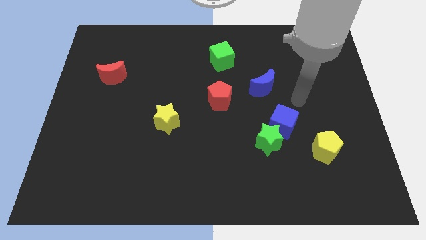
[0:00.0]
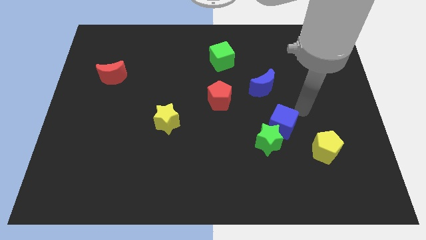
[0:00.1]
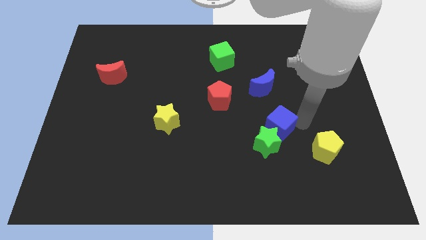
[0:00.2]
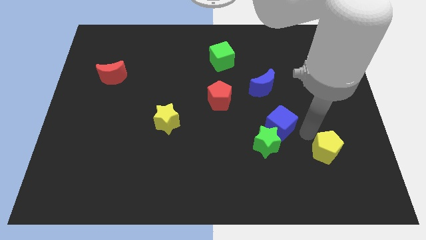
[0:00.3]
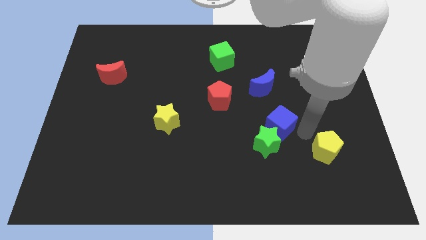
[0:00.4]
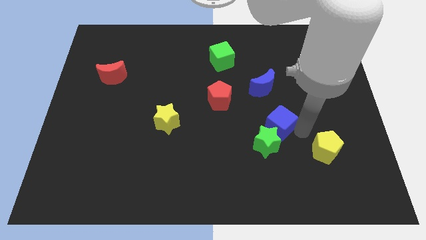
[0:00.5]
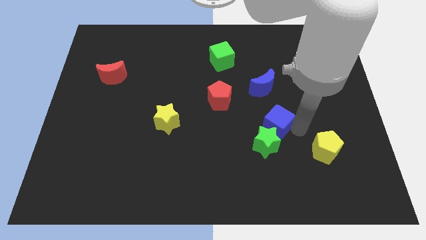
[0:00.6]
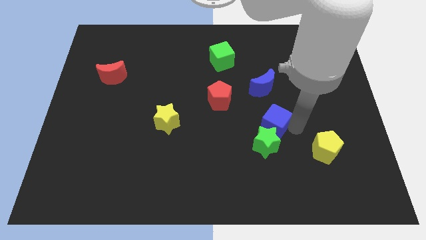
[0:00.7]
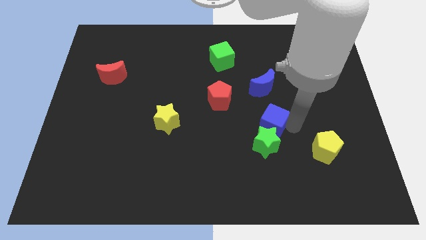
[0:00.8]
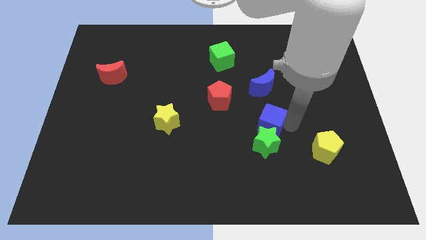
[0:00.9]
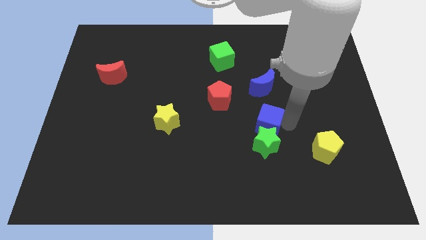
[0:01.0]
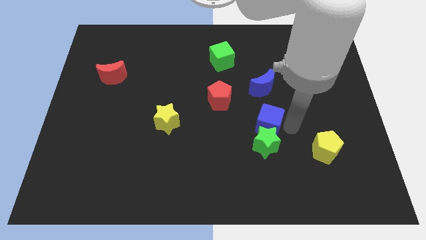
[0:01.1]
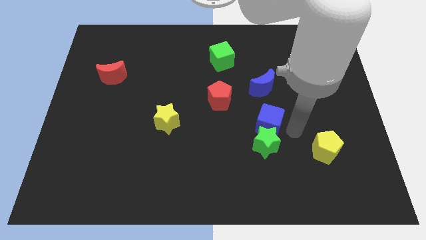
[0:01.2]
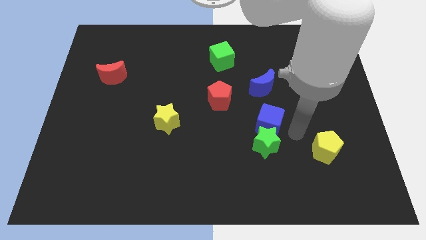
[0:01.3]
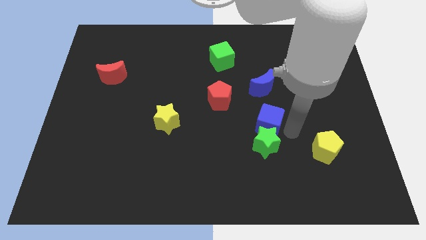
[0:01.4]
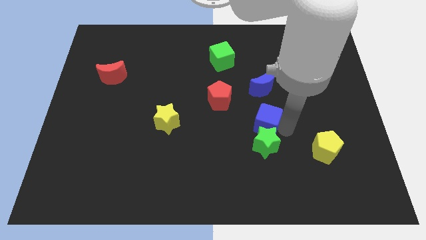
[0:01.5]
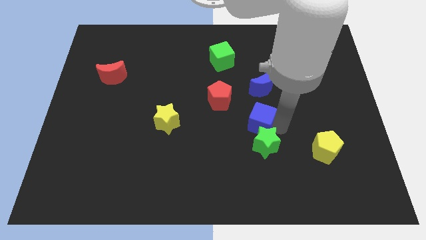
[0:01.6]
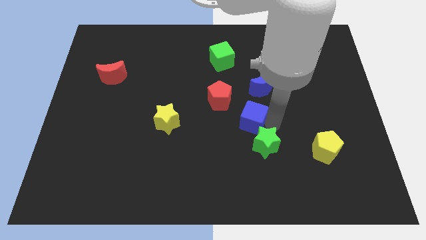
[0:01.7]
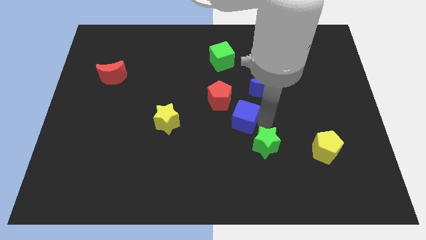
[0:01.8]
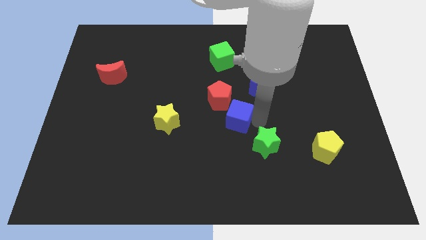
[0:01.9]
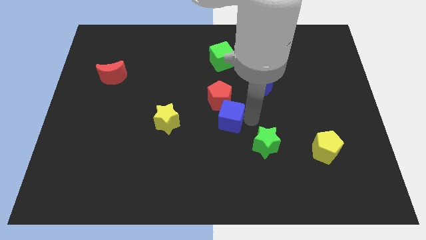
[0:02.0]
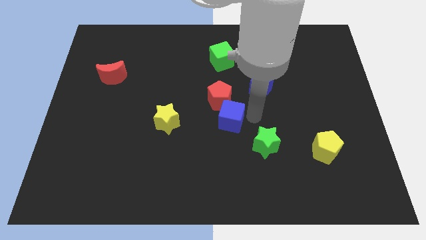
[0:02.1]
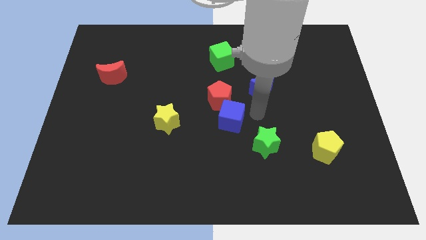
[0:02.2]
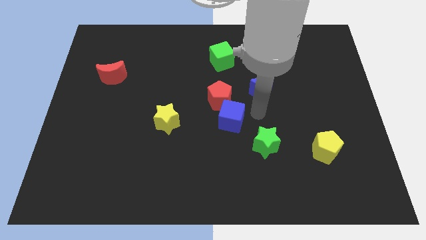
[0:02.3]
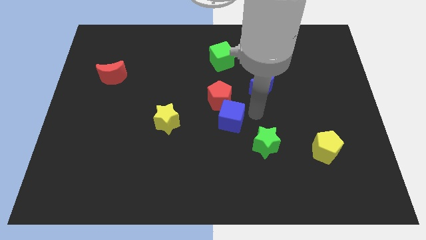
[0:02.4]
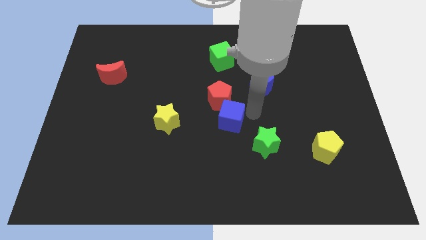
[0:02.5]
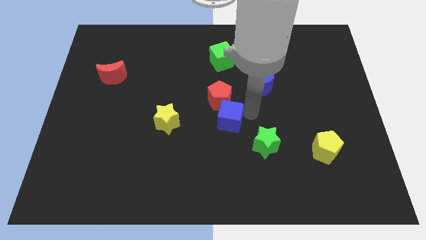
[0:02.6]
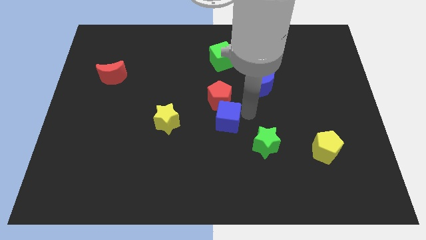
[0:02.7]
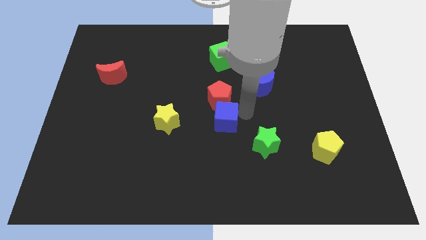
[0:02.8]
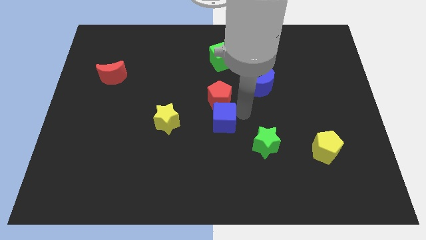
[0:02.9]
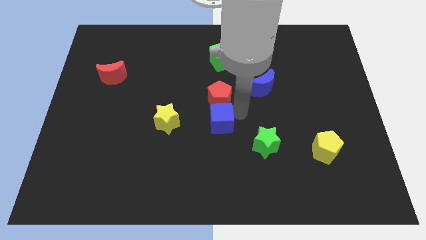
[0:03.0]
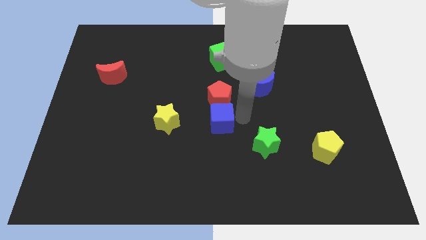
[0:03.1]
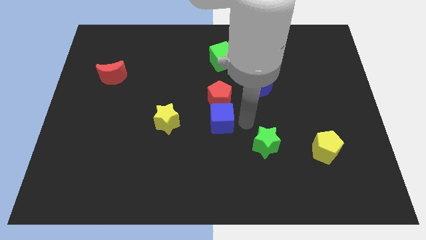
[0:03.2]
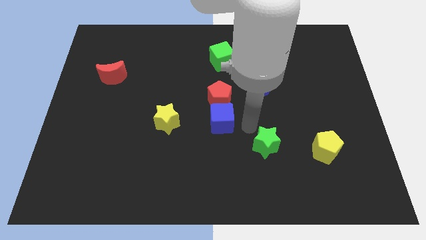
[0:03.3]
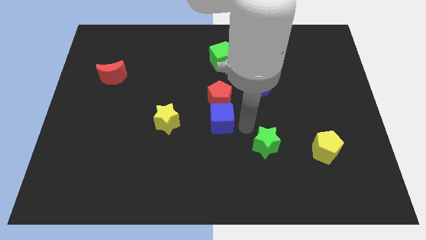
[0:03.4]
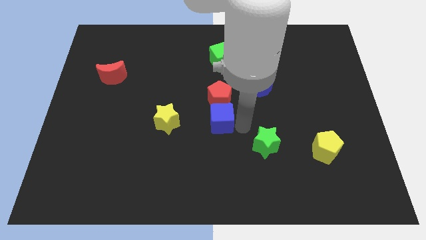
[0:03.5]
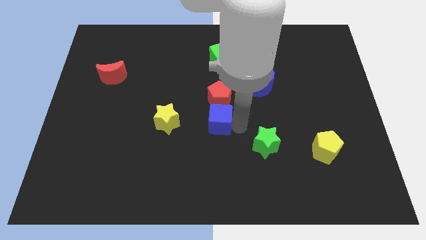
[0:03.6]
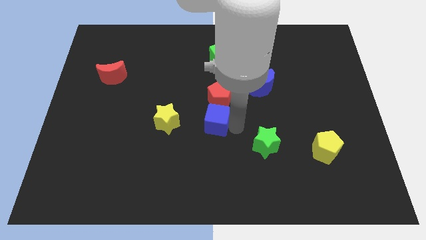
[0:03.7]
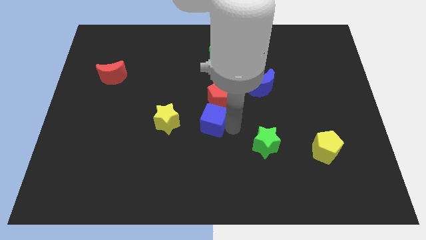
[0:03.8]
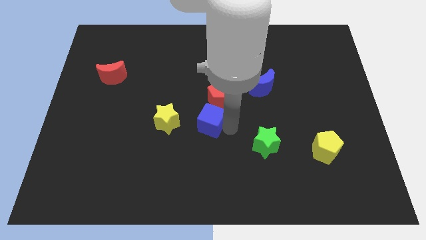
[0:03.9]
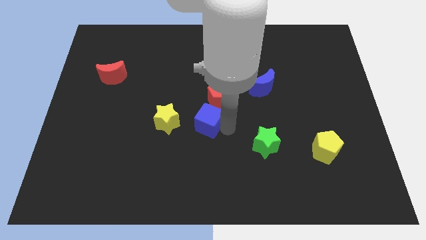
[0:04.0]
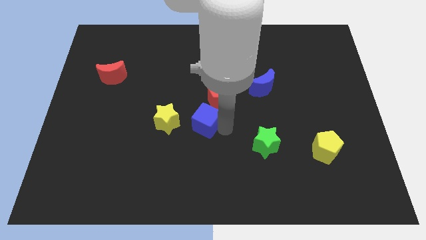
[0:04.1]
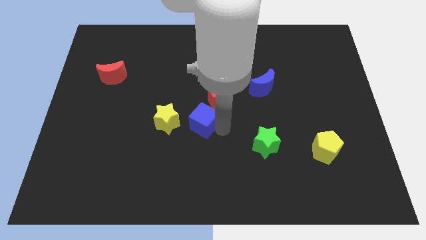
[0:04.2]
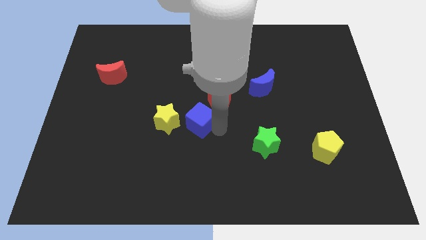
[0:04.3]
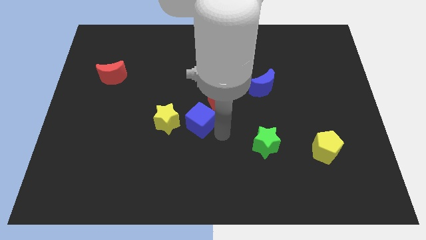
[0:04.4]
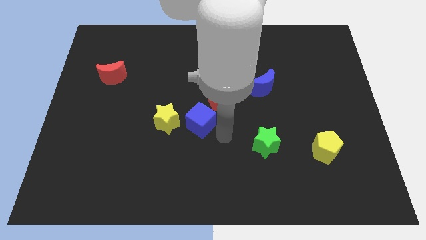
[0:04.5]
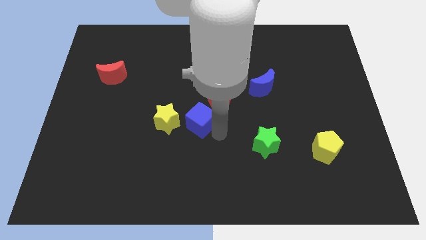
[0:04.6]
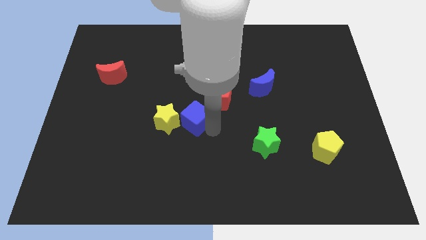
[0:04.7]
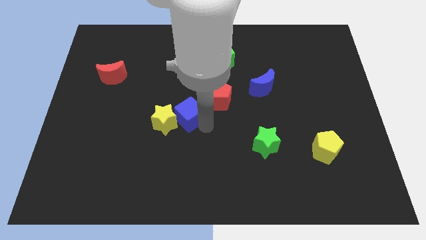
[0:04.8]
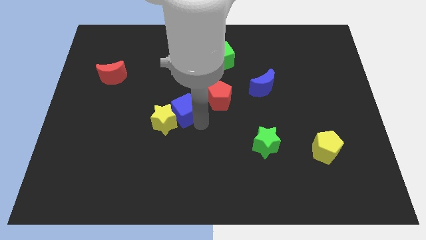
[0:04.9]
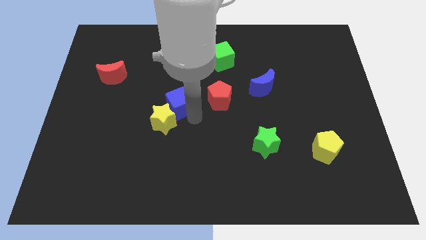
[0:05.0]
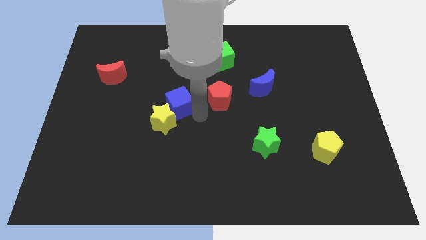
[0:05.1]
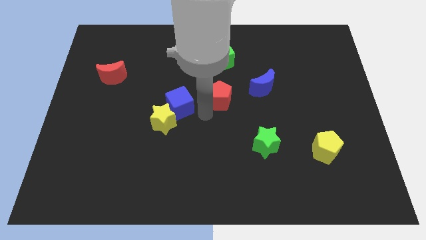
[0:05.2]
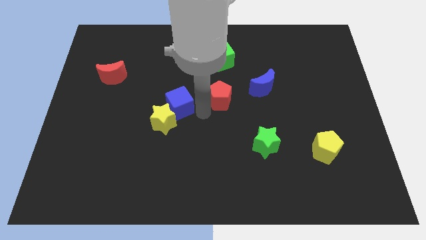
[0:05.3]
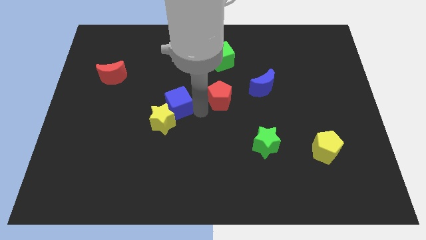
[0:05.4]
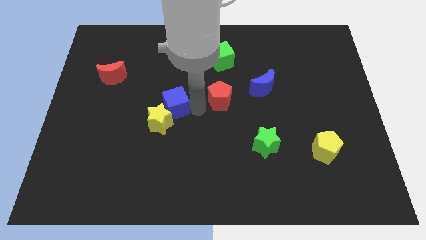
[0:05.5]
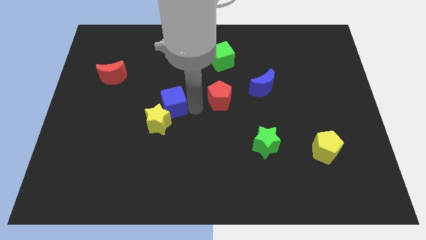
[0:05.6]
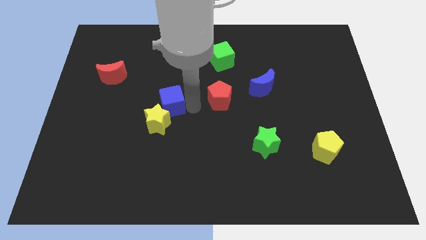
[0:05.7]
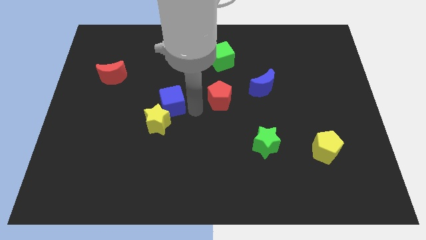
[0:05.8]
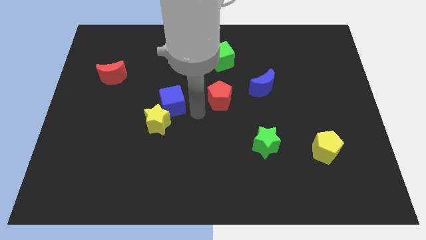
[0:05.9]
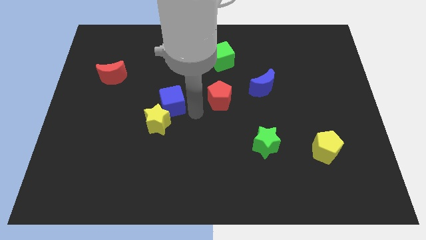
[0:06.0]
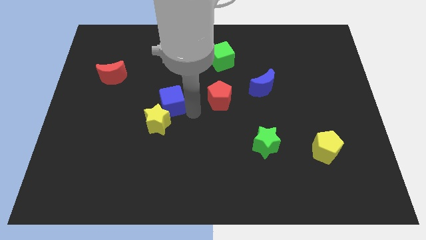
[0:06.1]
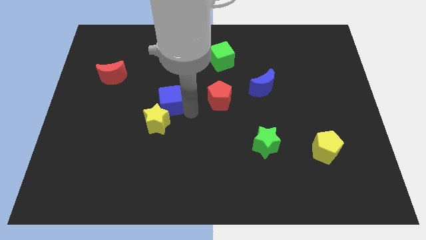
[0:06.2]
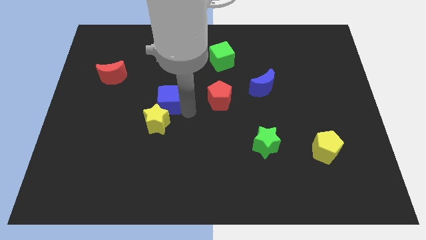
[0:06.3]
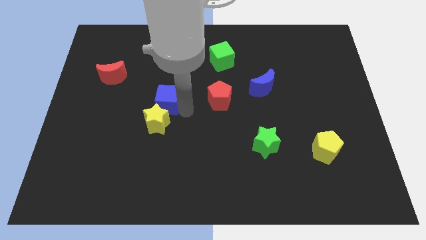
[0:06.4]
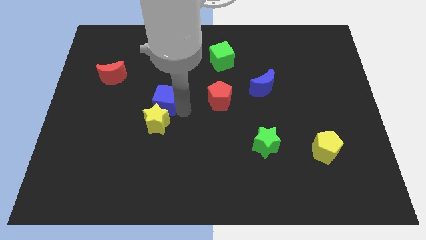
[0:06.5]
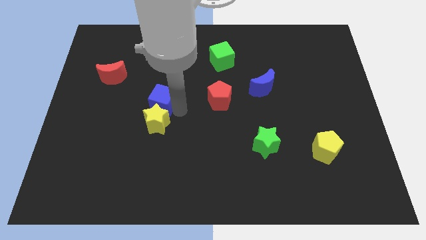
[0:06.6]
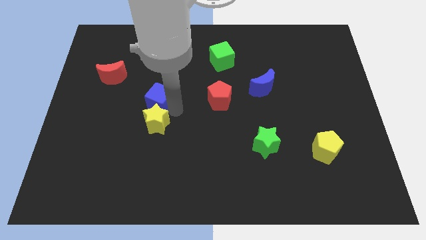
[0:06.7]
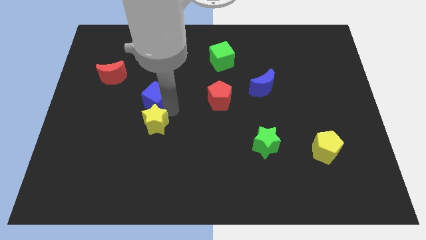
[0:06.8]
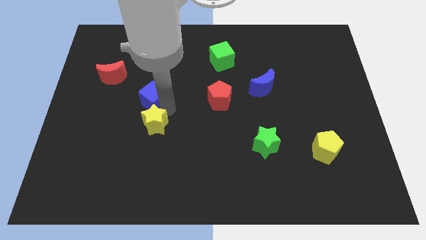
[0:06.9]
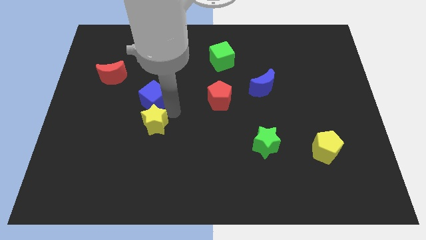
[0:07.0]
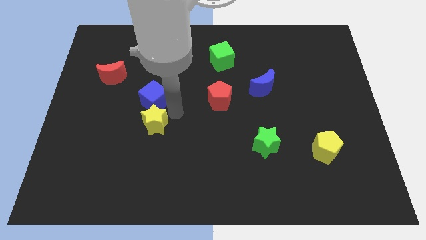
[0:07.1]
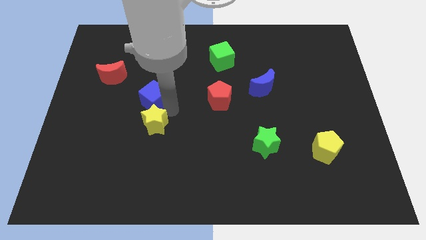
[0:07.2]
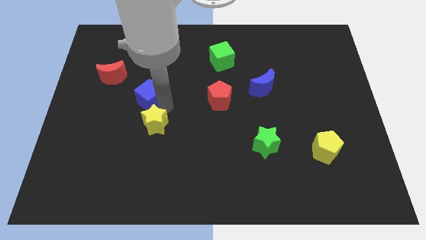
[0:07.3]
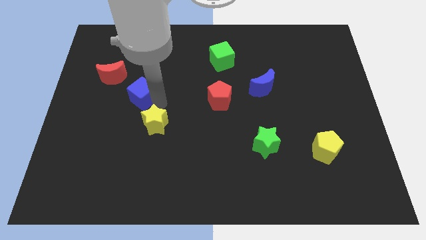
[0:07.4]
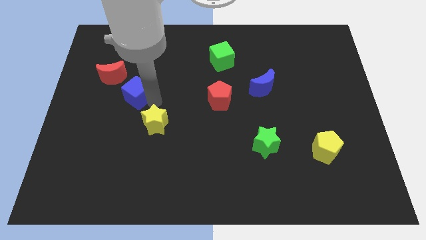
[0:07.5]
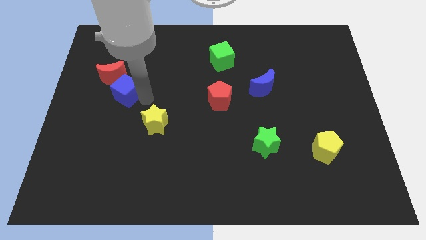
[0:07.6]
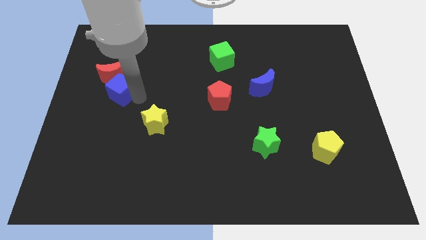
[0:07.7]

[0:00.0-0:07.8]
move the blue cube close to the red moon
